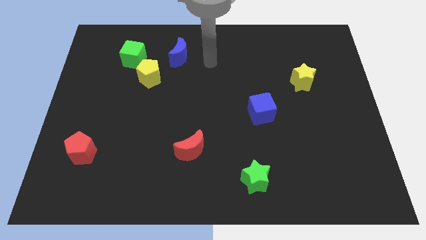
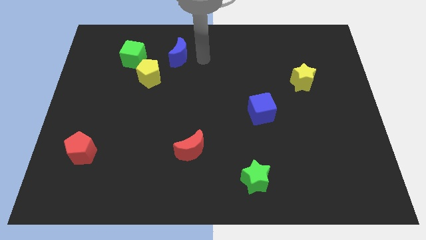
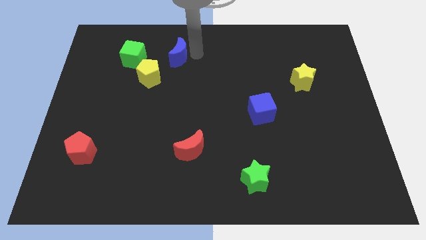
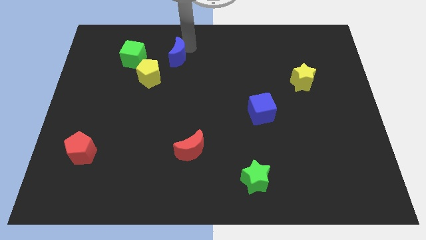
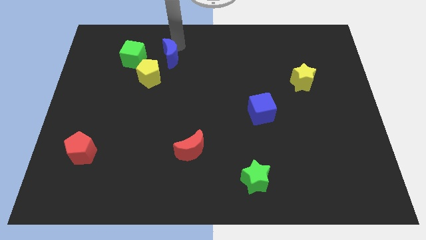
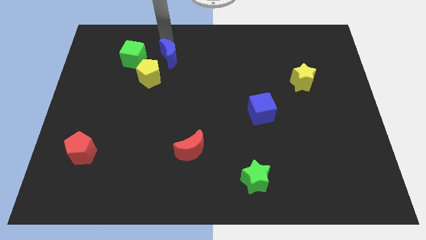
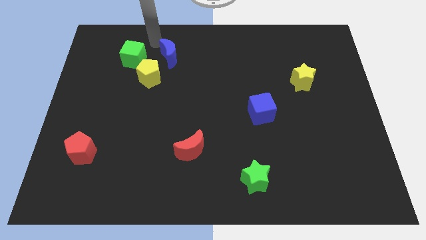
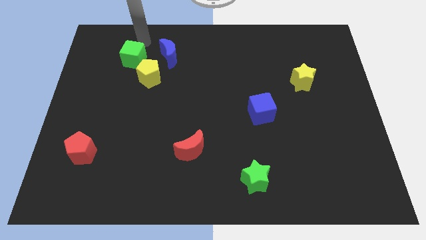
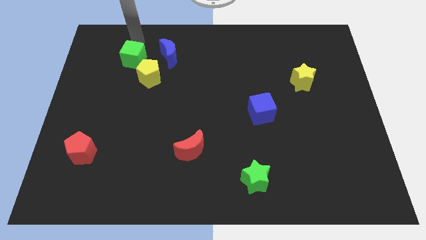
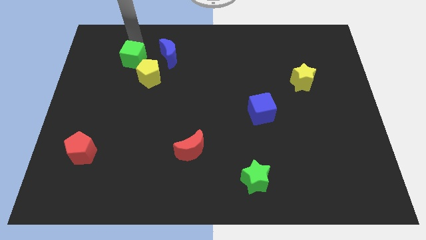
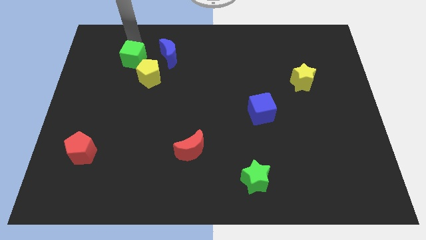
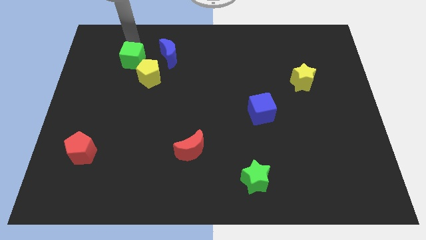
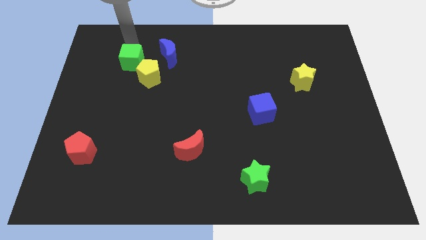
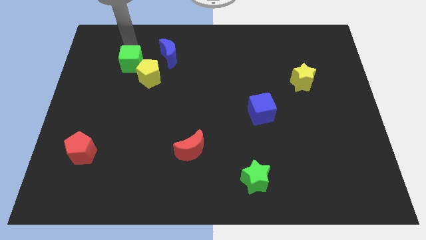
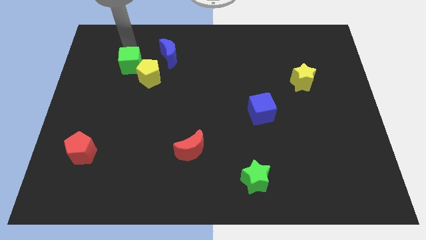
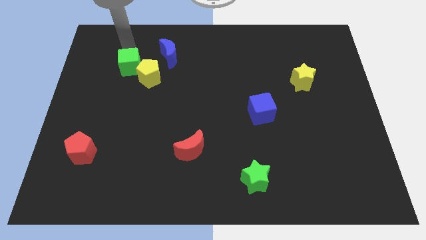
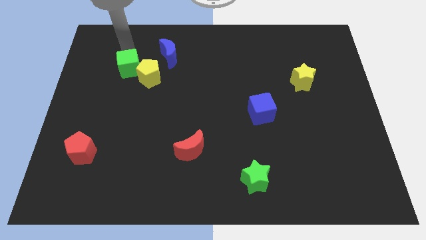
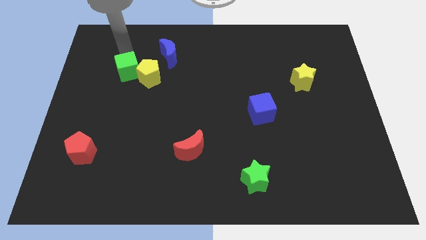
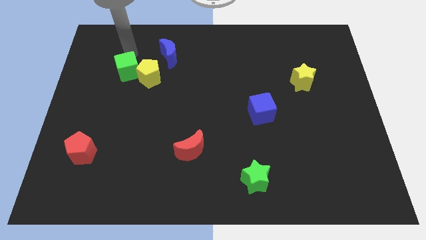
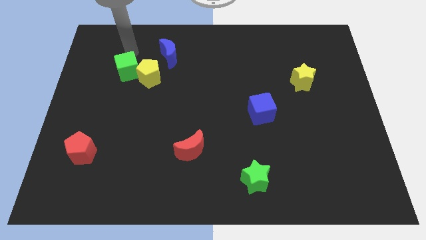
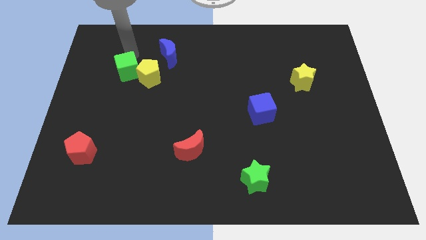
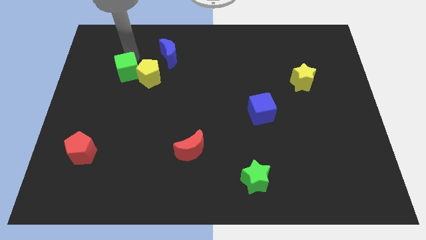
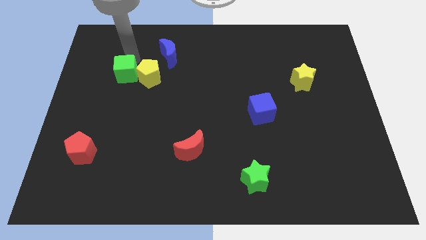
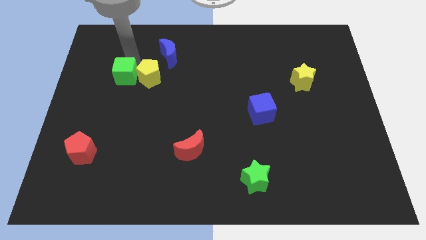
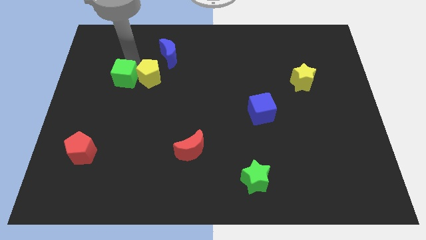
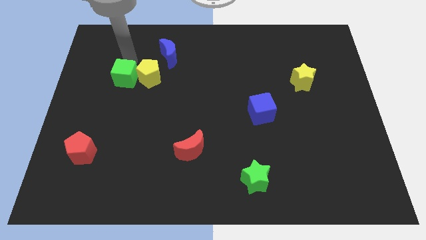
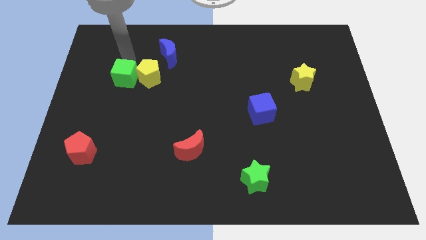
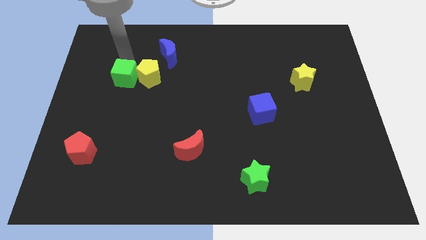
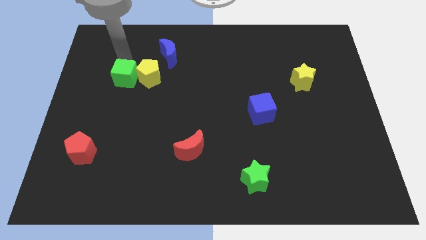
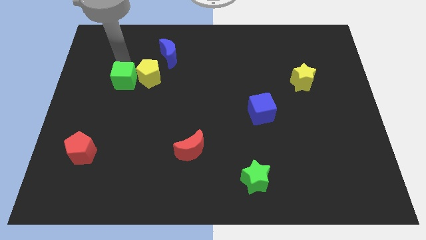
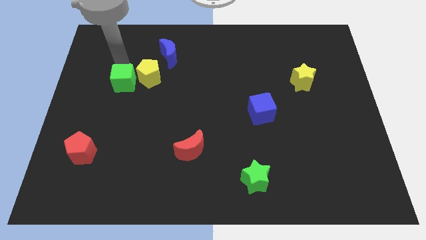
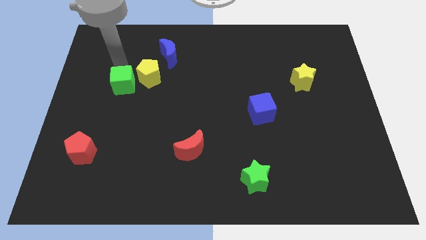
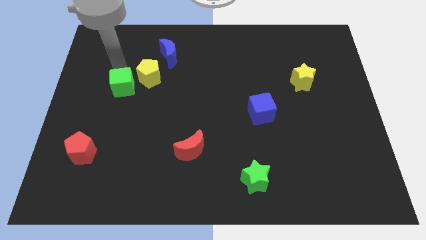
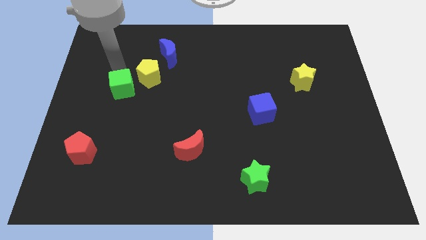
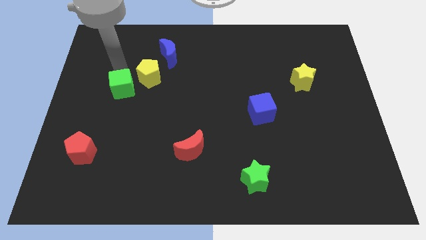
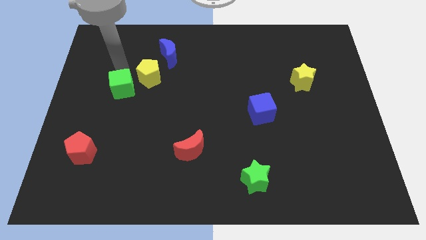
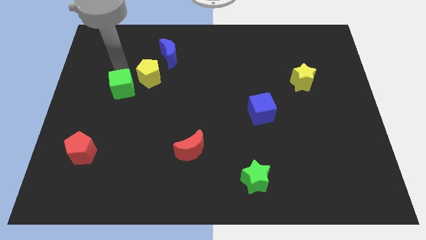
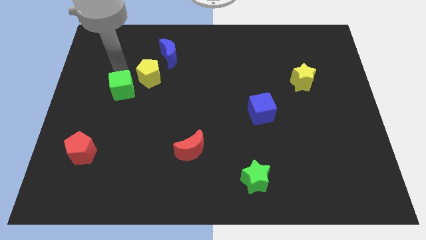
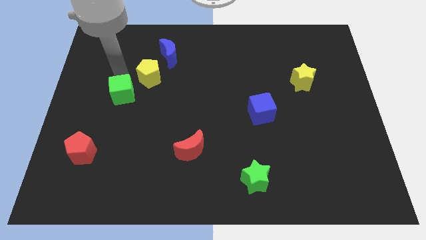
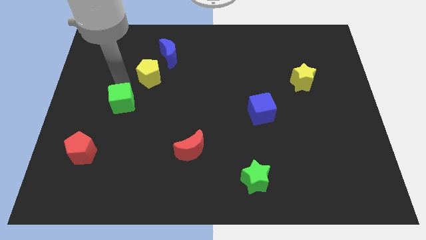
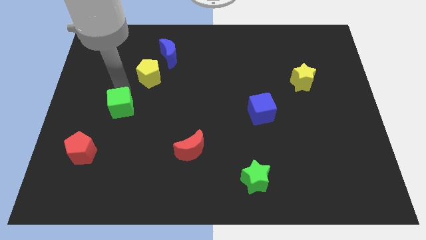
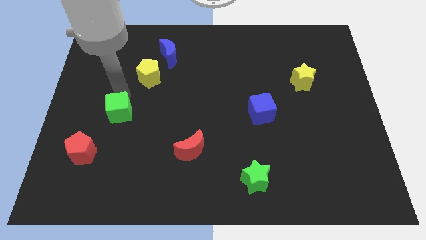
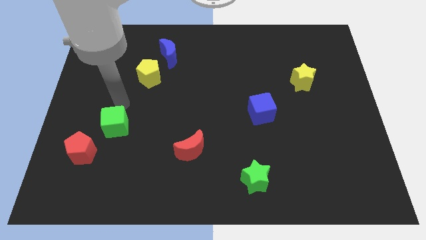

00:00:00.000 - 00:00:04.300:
push the green cube downwards

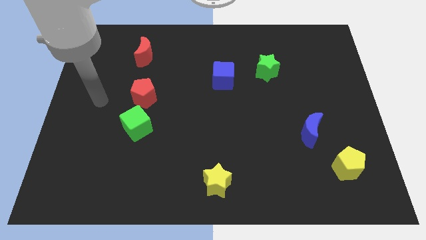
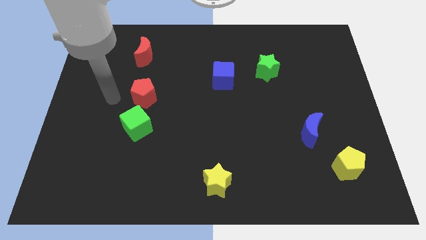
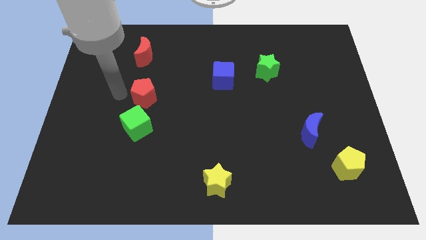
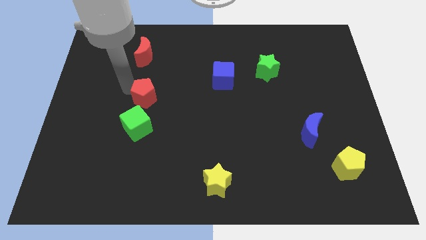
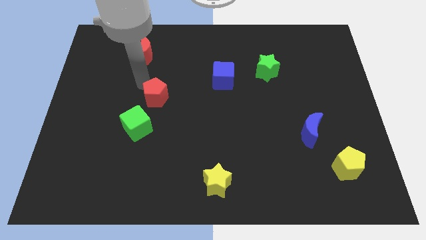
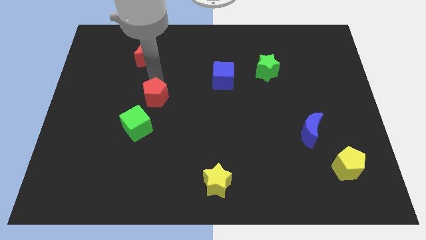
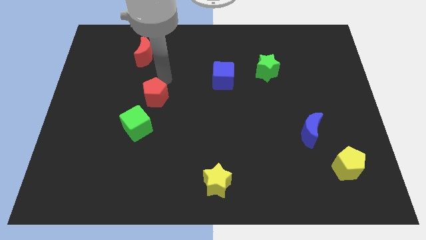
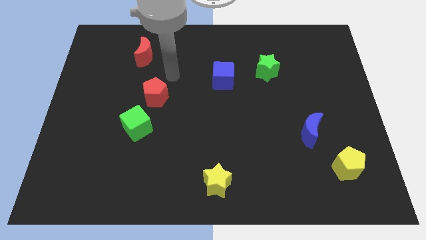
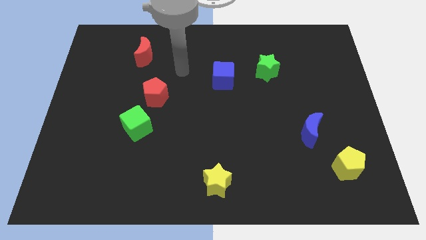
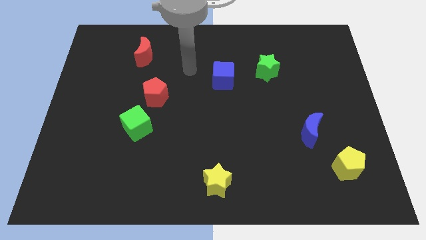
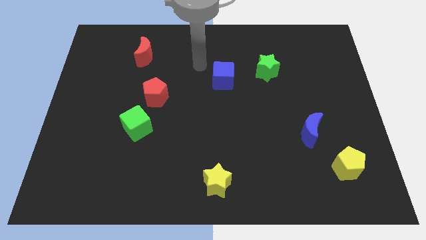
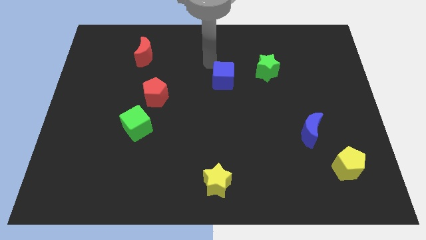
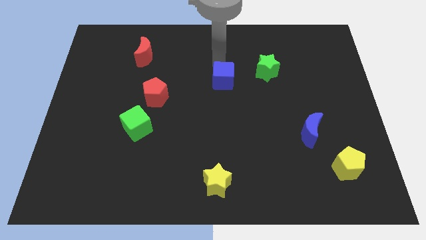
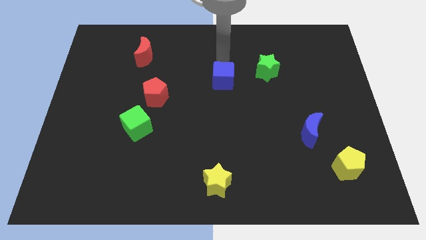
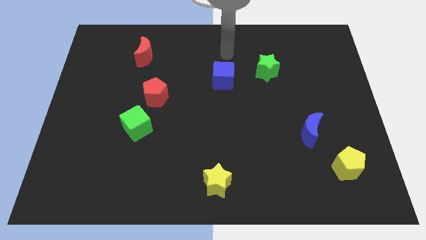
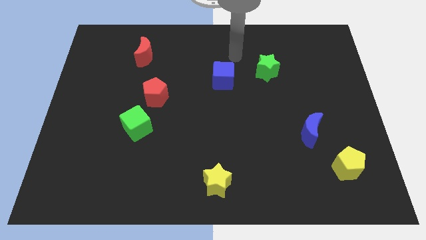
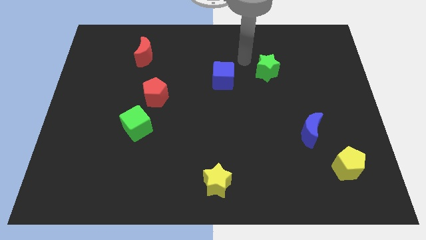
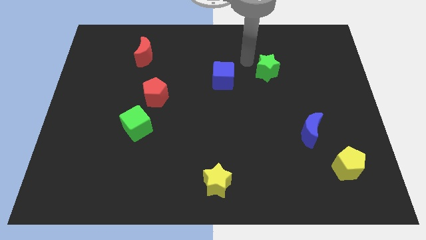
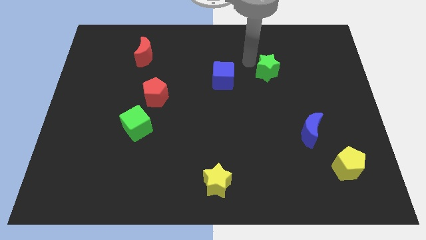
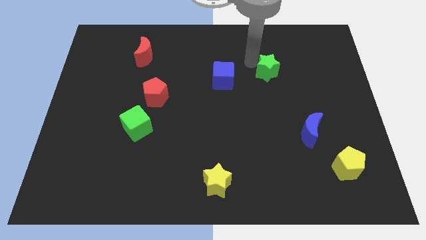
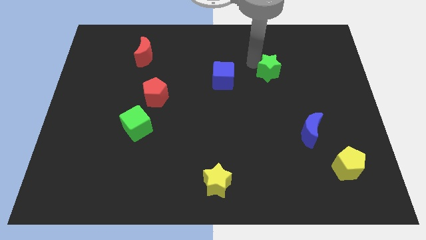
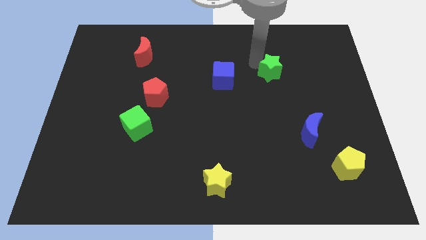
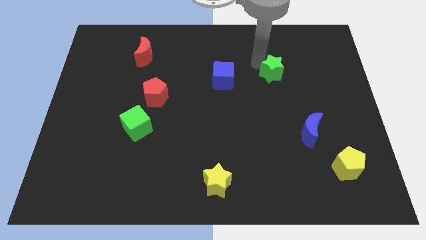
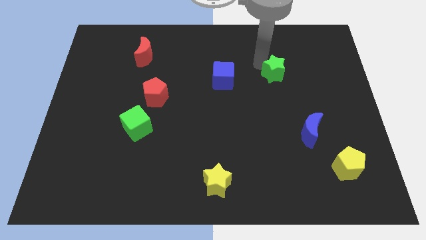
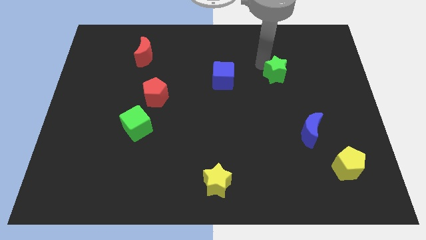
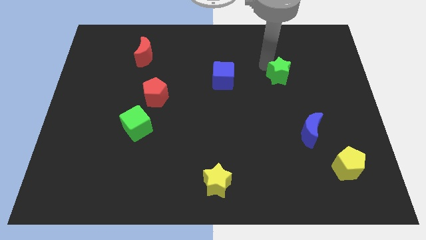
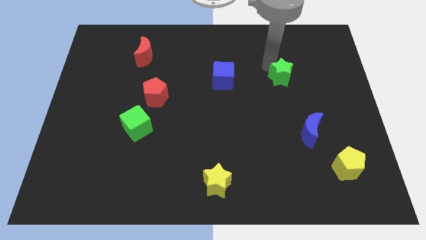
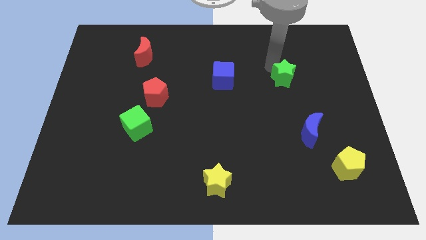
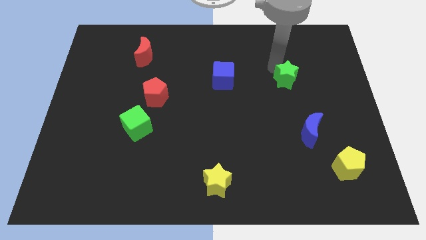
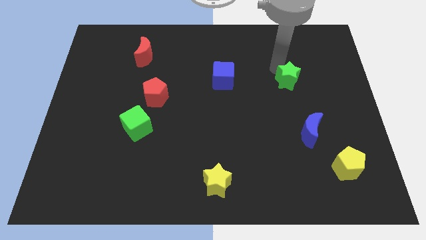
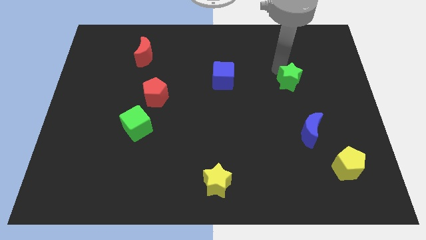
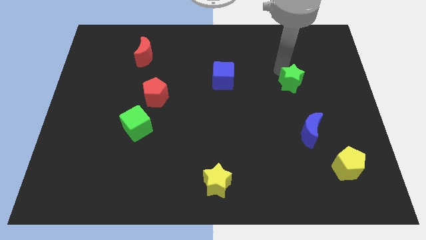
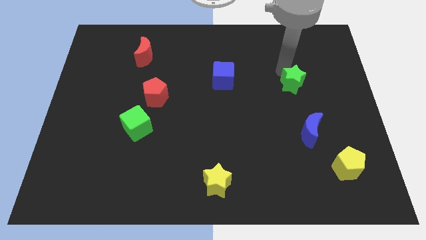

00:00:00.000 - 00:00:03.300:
move the green star slightly downwards and to the right diagonally

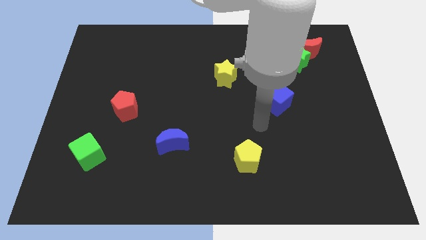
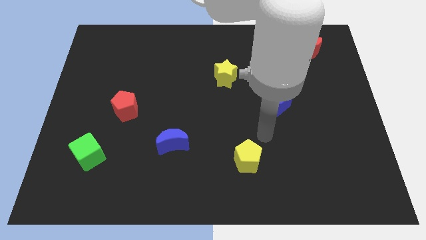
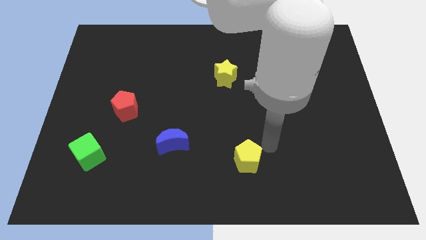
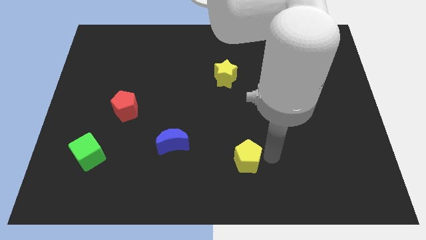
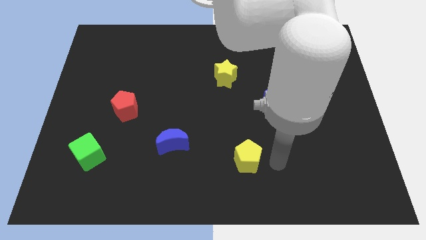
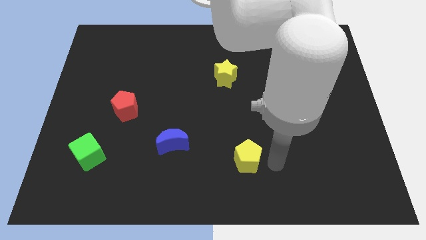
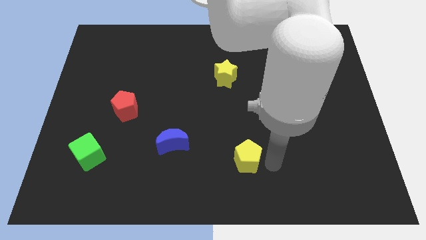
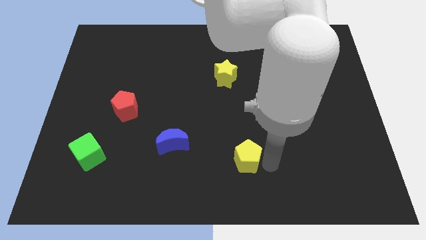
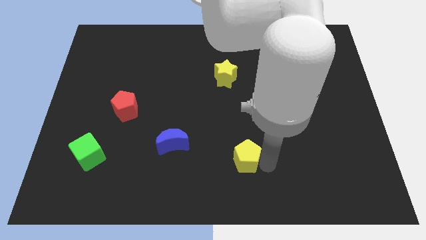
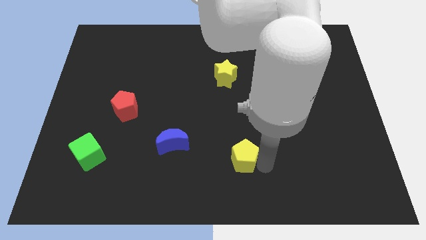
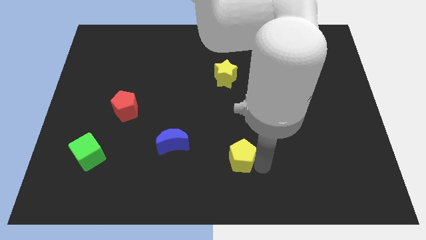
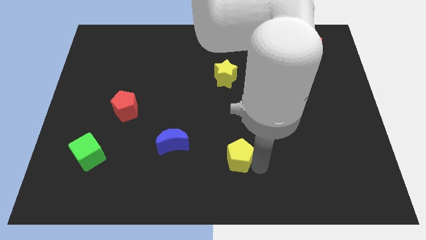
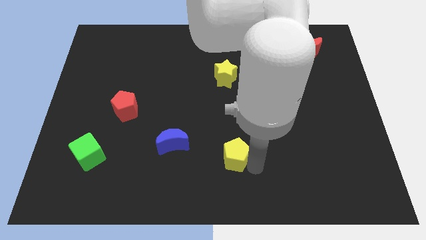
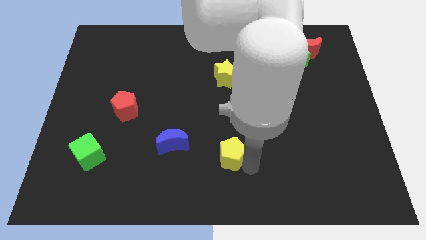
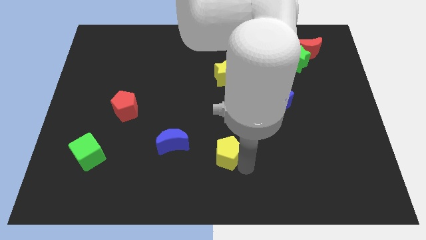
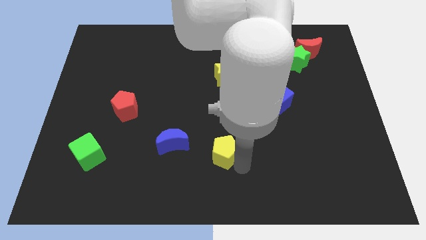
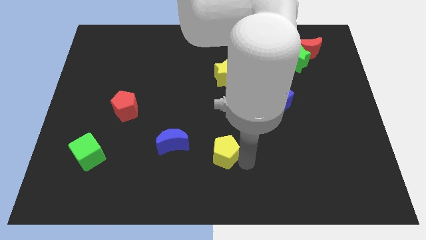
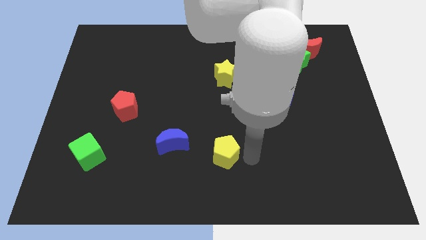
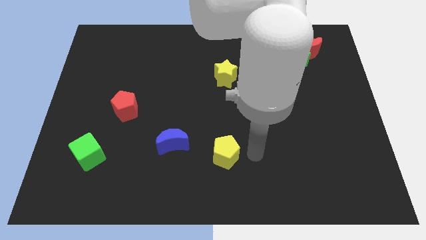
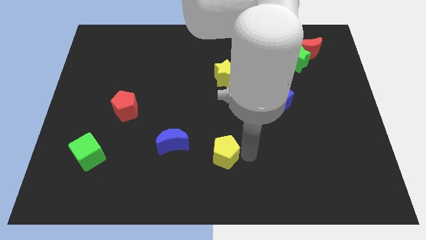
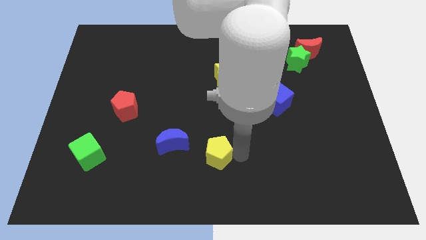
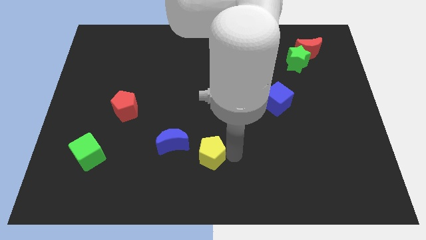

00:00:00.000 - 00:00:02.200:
move the yellow pentagon left somewhat
